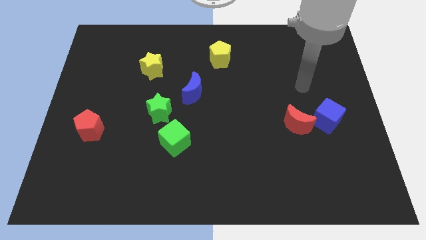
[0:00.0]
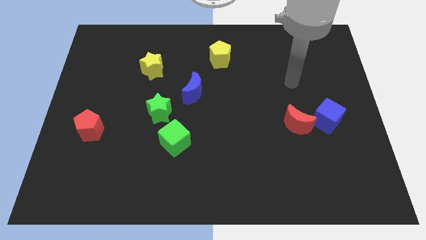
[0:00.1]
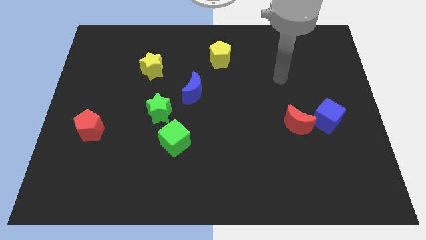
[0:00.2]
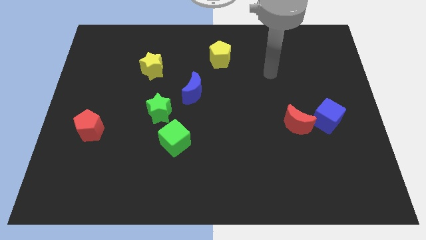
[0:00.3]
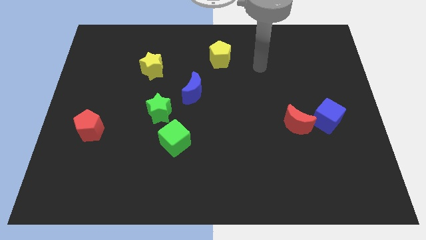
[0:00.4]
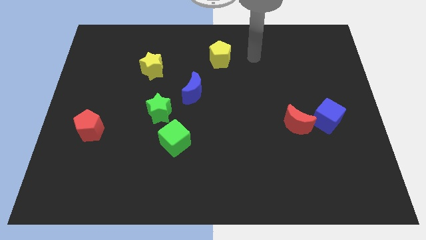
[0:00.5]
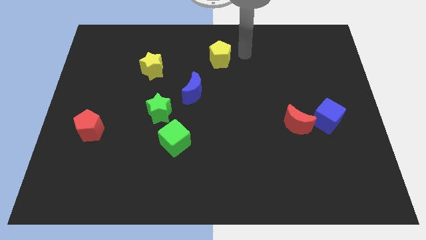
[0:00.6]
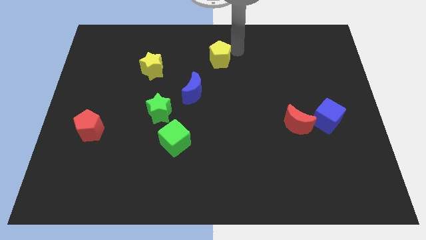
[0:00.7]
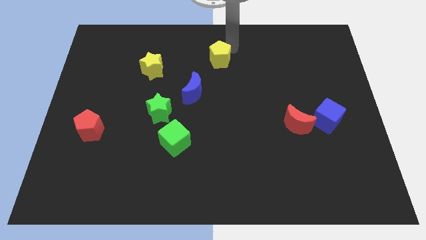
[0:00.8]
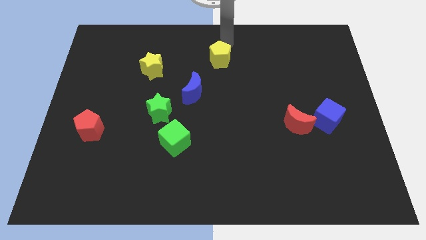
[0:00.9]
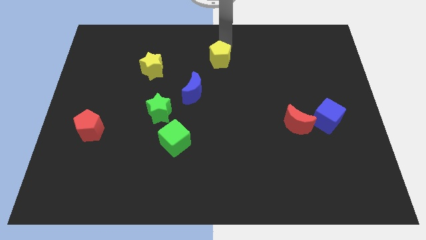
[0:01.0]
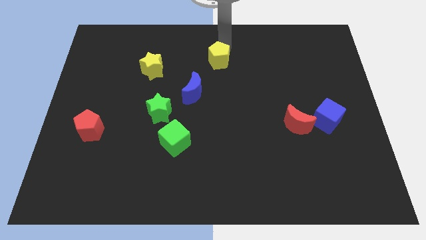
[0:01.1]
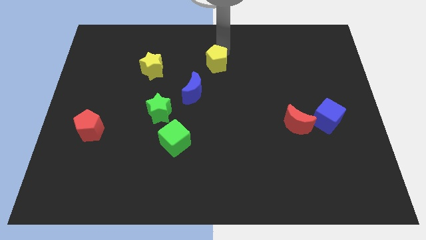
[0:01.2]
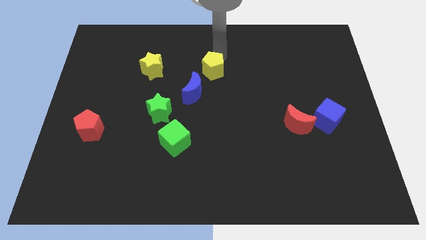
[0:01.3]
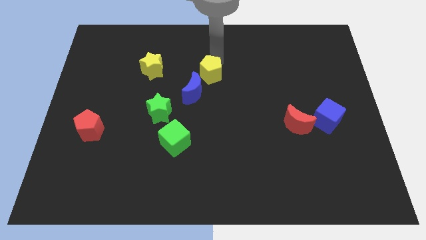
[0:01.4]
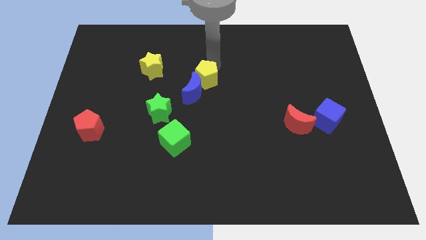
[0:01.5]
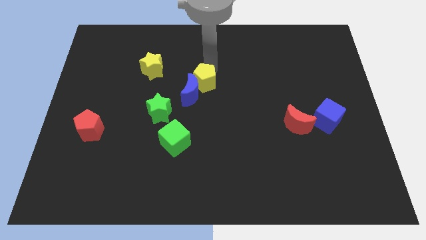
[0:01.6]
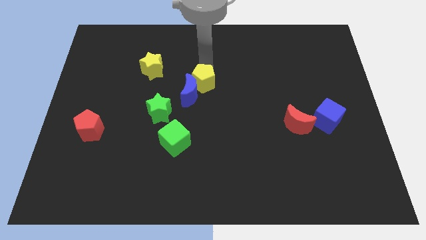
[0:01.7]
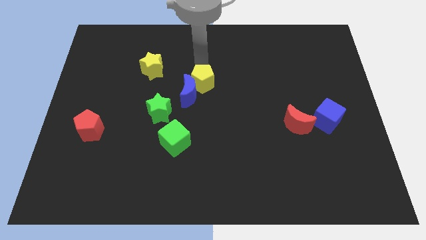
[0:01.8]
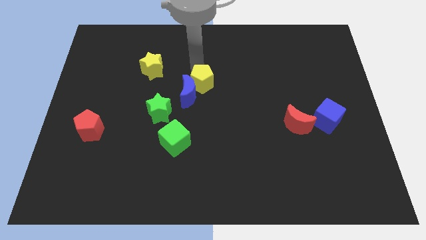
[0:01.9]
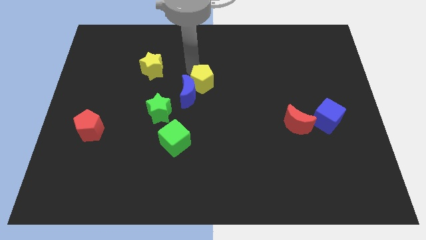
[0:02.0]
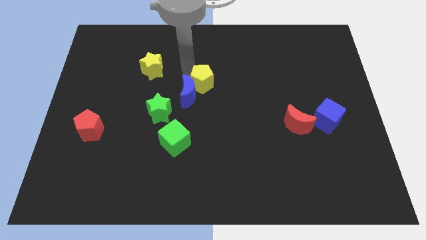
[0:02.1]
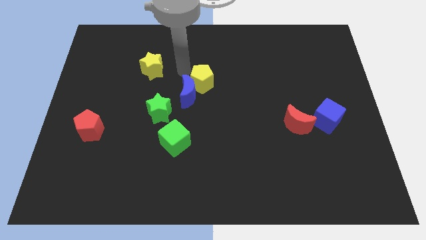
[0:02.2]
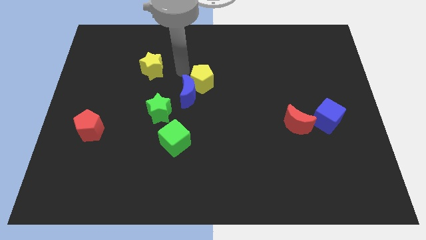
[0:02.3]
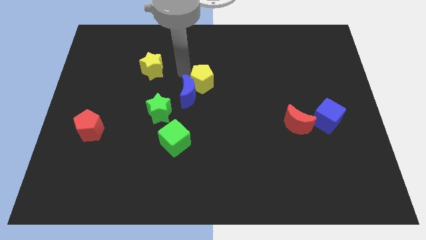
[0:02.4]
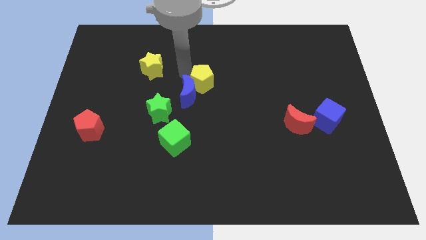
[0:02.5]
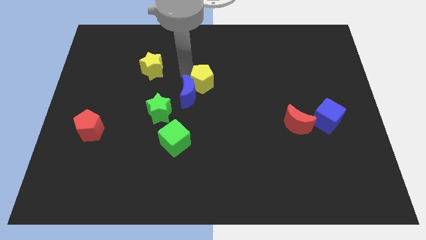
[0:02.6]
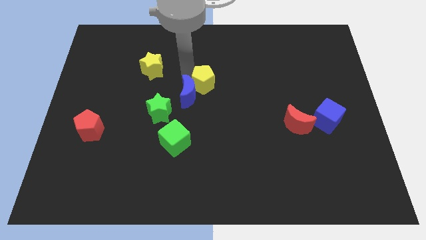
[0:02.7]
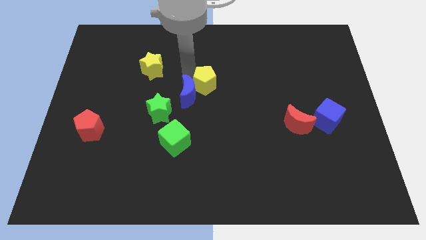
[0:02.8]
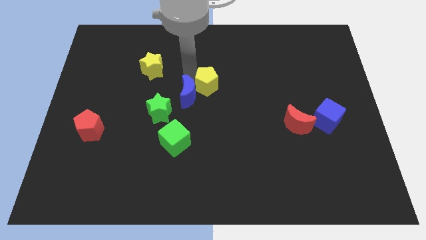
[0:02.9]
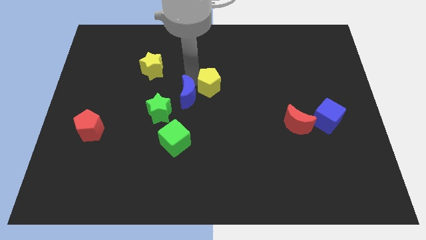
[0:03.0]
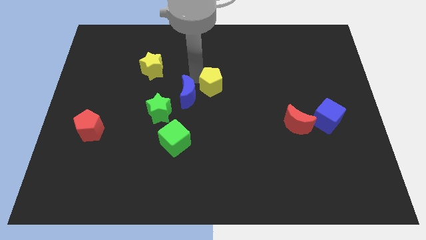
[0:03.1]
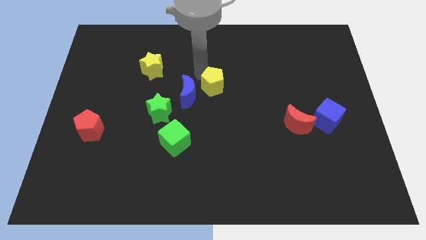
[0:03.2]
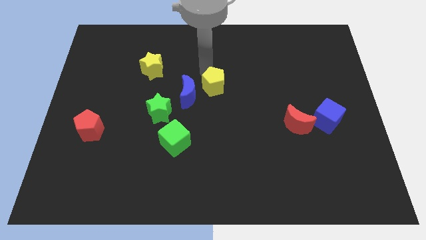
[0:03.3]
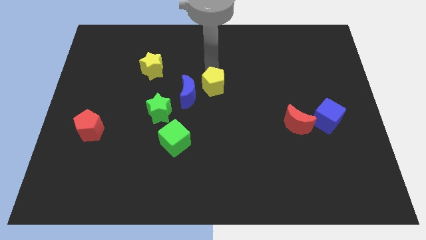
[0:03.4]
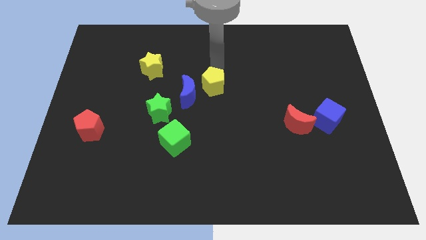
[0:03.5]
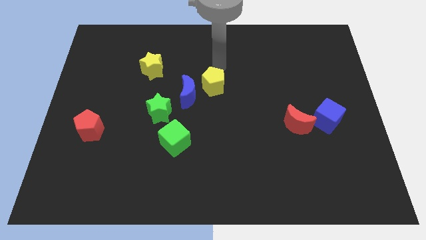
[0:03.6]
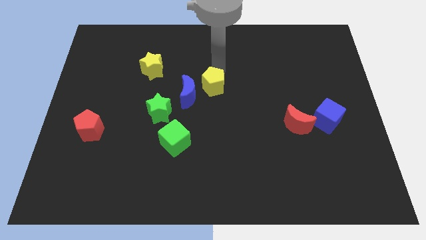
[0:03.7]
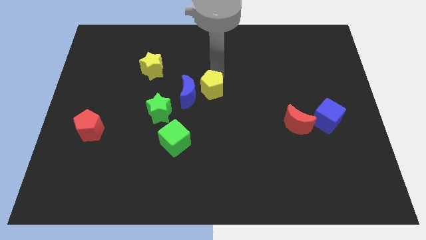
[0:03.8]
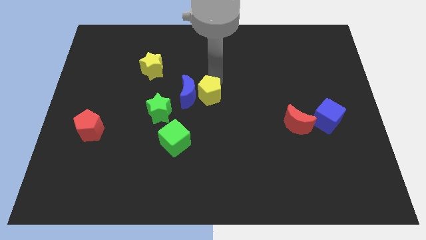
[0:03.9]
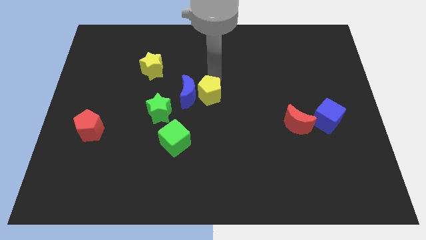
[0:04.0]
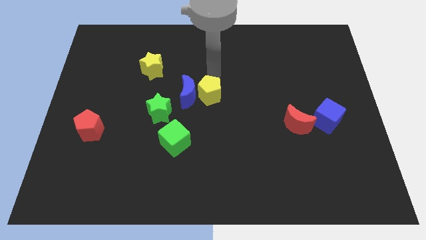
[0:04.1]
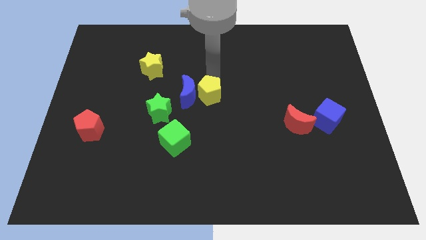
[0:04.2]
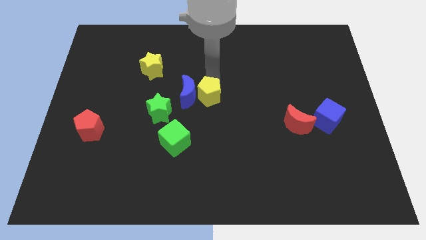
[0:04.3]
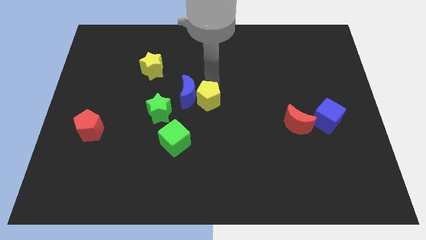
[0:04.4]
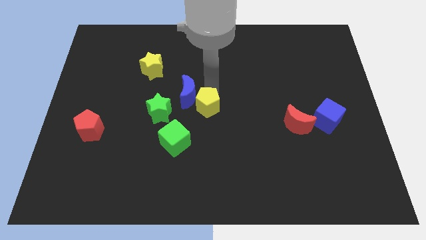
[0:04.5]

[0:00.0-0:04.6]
slide the yellow pentagon to the top right side of the green cube

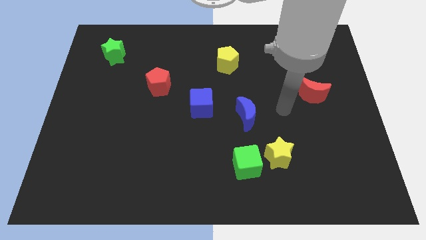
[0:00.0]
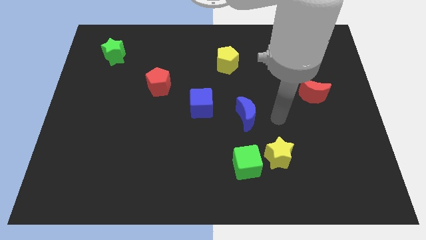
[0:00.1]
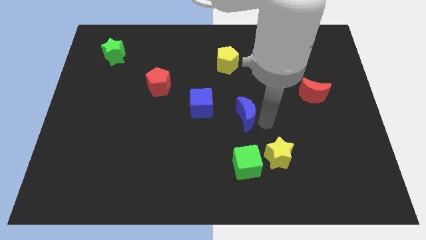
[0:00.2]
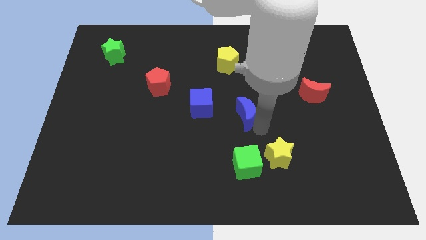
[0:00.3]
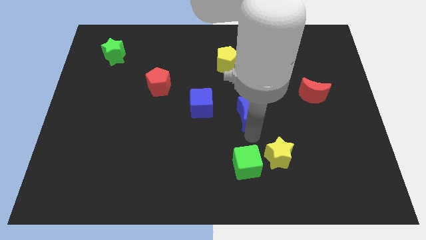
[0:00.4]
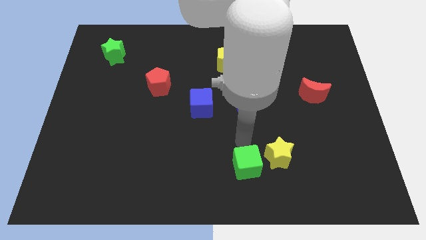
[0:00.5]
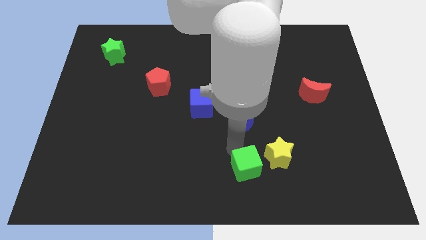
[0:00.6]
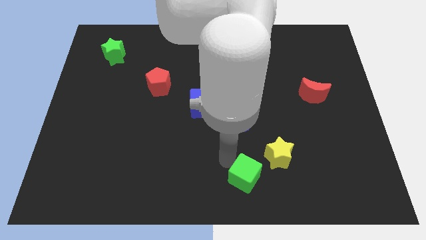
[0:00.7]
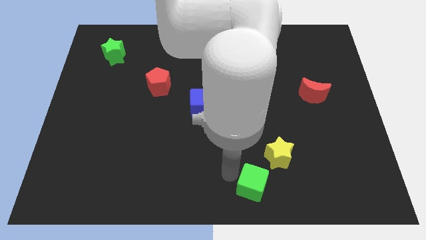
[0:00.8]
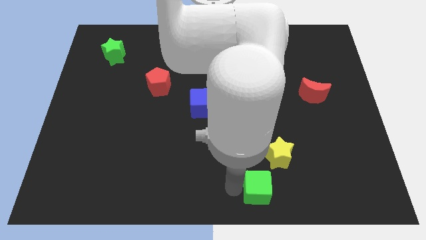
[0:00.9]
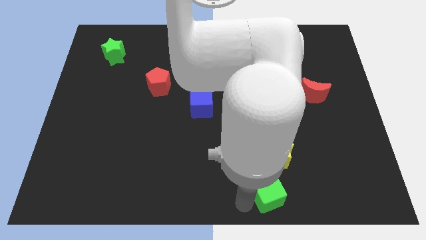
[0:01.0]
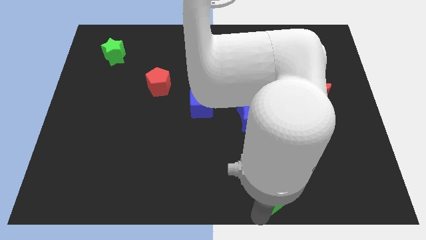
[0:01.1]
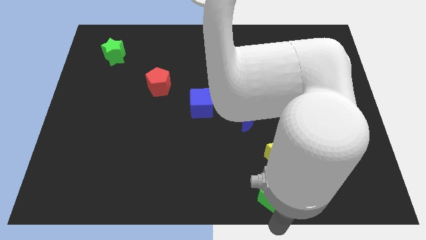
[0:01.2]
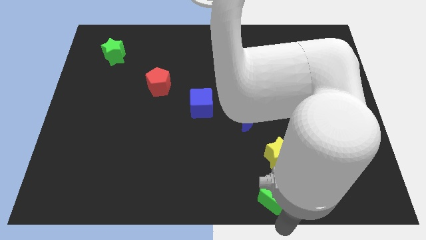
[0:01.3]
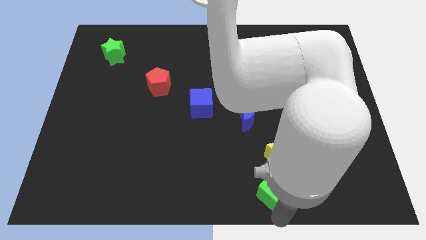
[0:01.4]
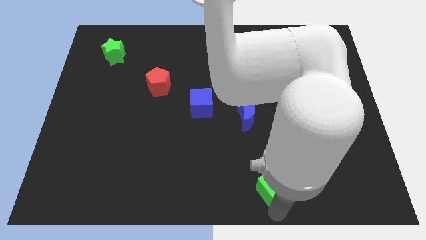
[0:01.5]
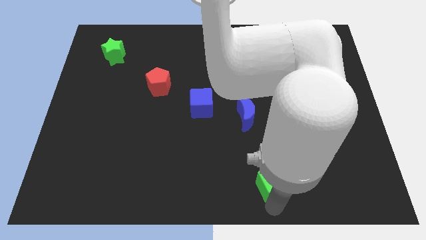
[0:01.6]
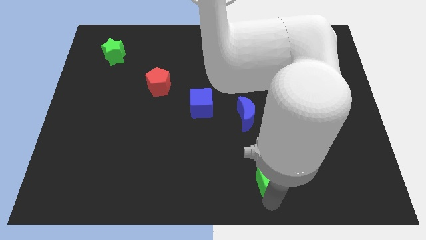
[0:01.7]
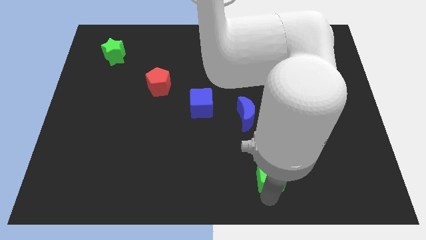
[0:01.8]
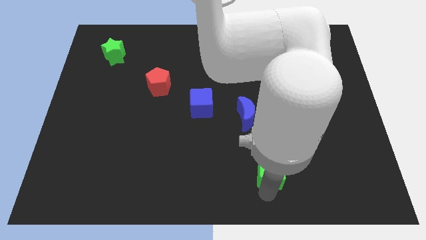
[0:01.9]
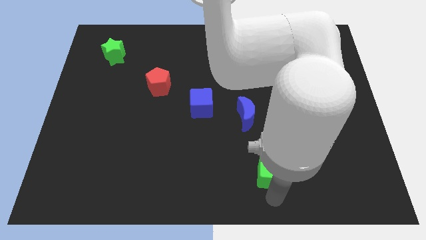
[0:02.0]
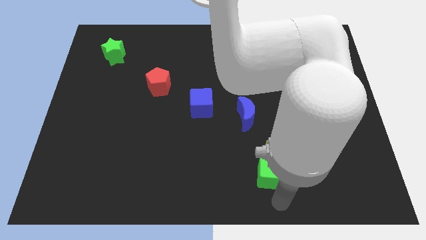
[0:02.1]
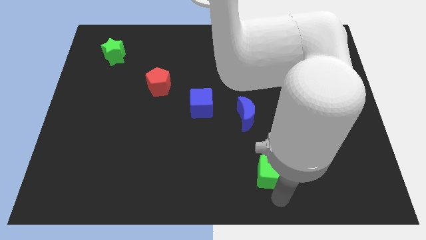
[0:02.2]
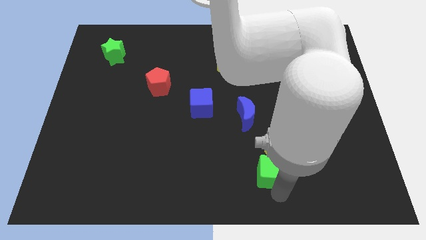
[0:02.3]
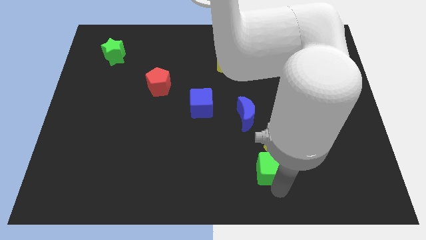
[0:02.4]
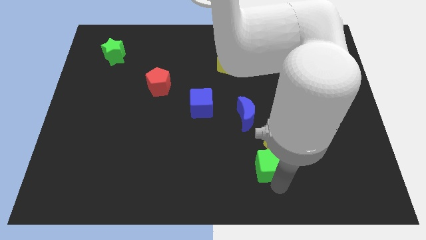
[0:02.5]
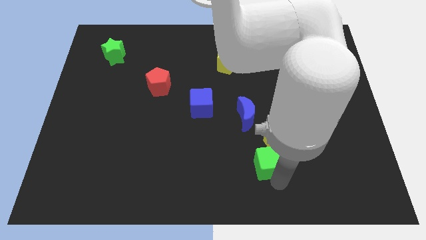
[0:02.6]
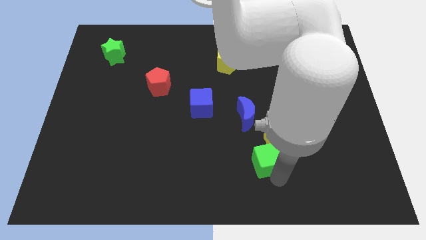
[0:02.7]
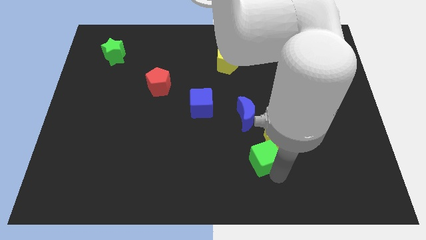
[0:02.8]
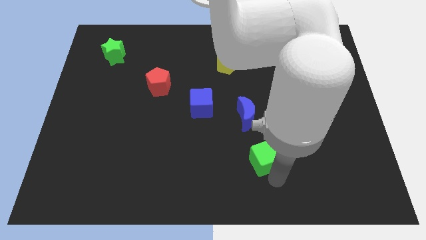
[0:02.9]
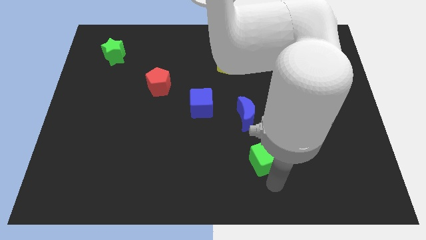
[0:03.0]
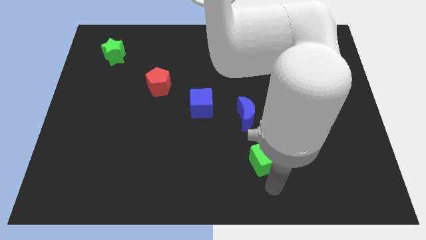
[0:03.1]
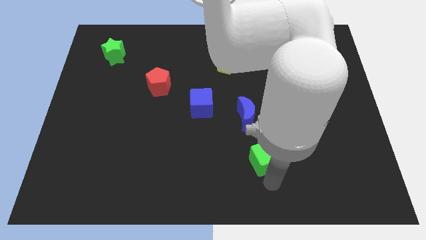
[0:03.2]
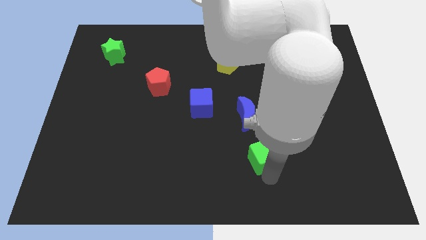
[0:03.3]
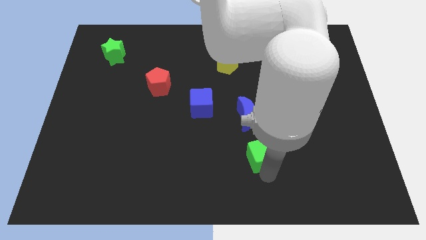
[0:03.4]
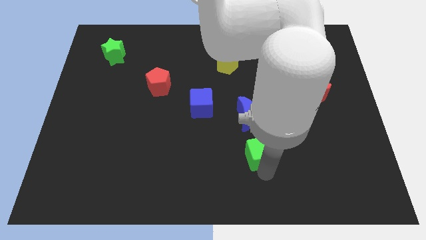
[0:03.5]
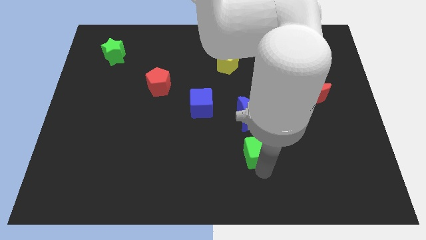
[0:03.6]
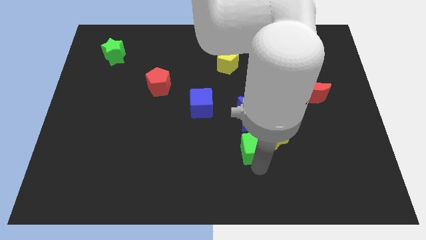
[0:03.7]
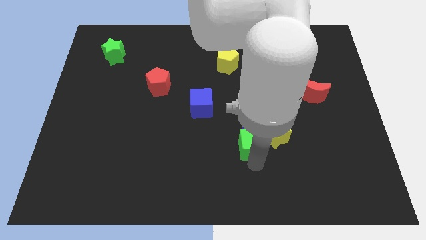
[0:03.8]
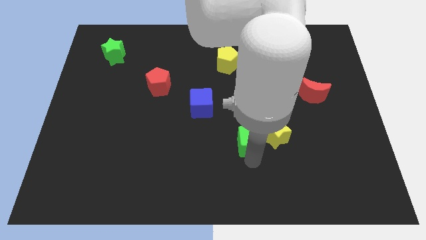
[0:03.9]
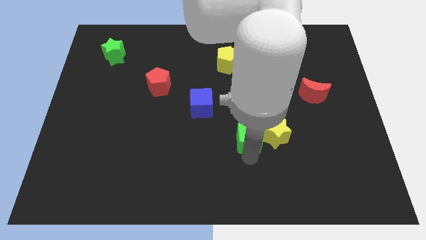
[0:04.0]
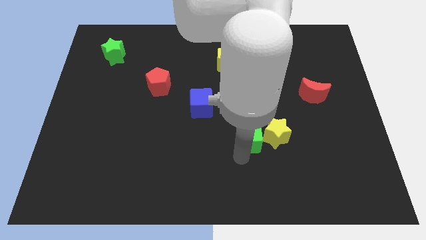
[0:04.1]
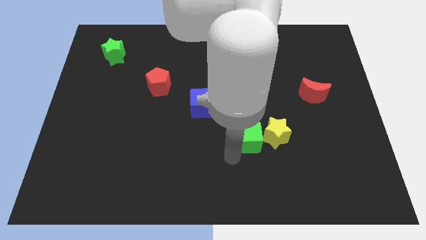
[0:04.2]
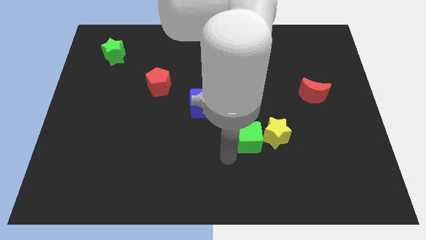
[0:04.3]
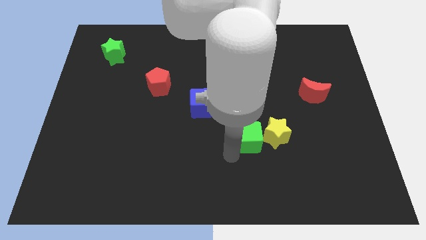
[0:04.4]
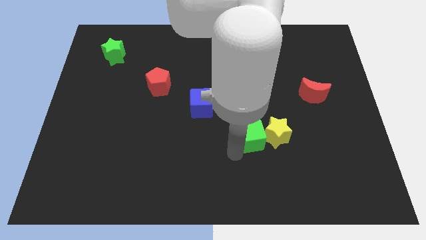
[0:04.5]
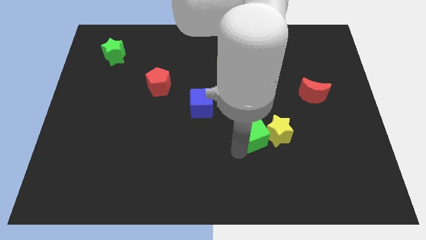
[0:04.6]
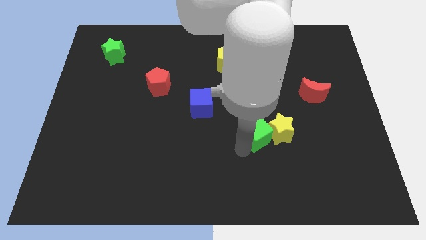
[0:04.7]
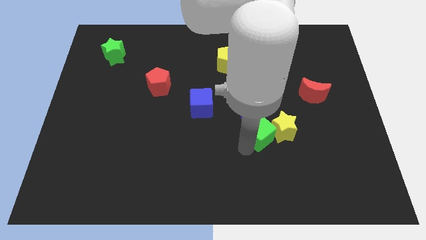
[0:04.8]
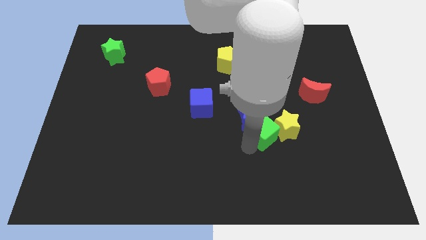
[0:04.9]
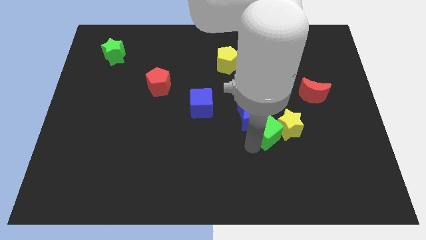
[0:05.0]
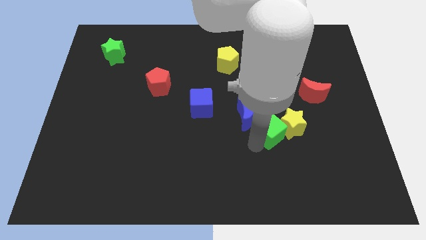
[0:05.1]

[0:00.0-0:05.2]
move the green cube to the right of the blue moon
